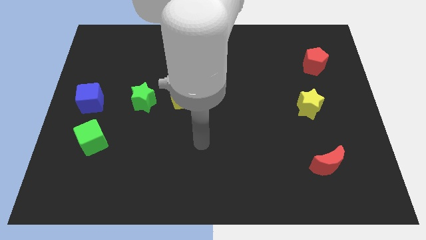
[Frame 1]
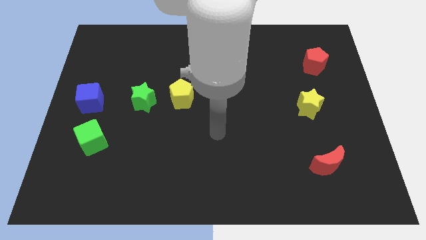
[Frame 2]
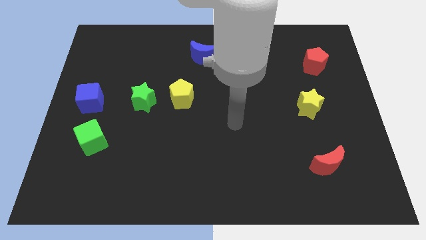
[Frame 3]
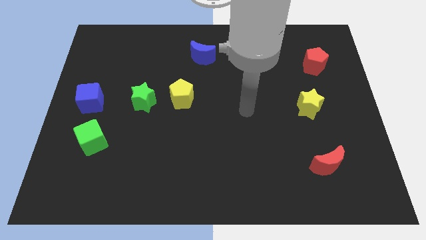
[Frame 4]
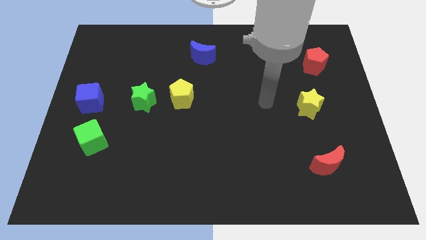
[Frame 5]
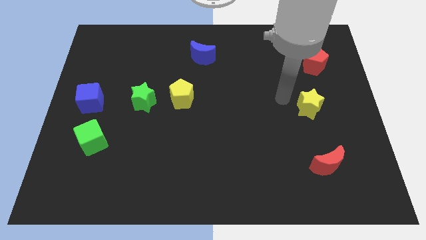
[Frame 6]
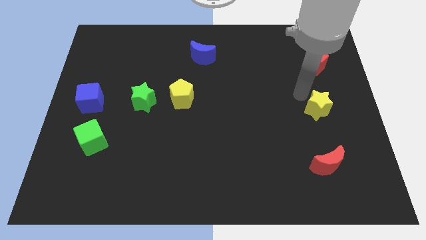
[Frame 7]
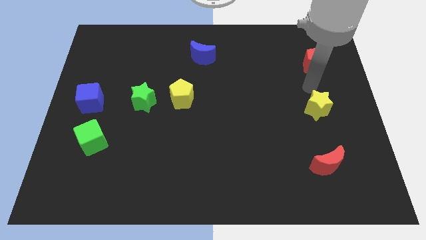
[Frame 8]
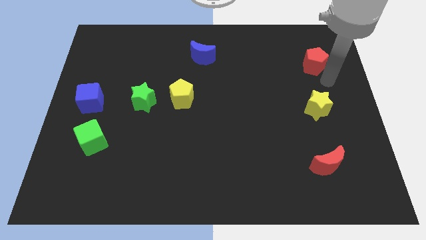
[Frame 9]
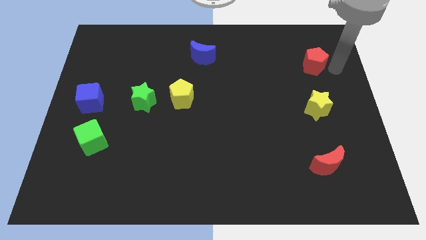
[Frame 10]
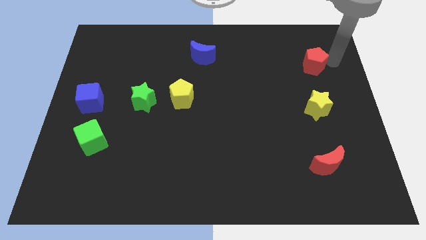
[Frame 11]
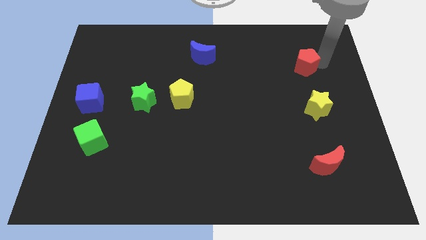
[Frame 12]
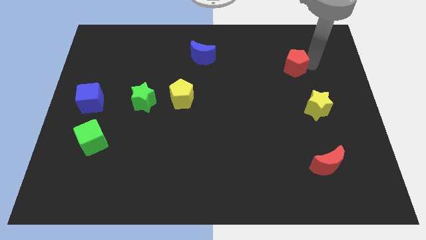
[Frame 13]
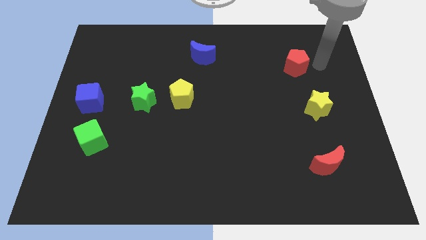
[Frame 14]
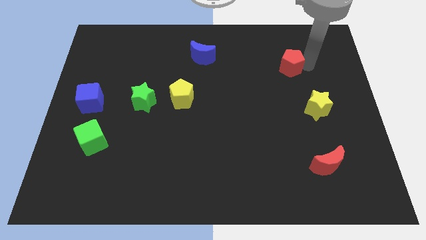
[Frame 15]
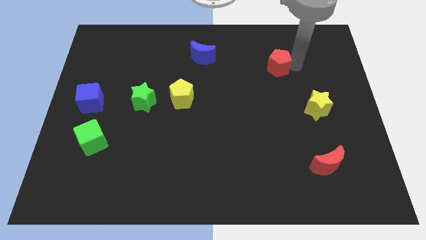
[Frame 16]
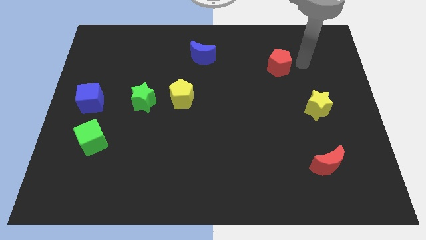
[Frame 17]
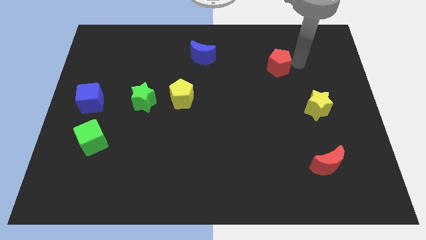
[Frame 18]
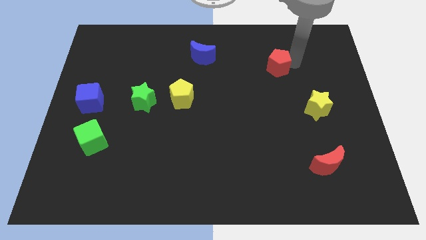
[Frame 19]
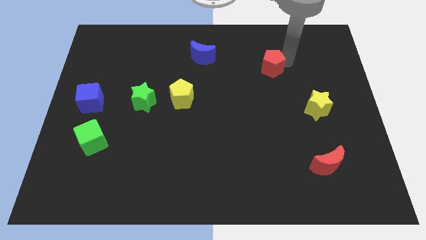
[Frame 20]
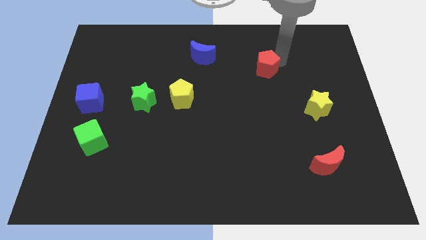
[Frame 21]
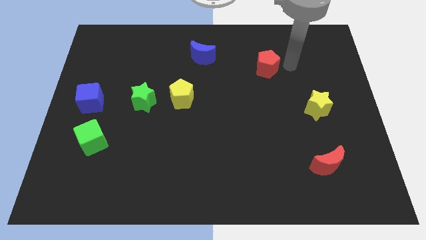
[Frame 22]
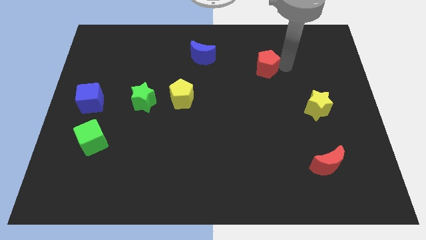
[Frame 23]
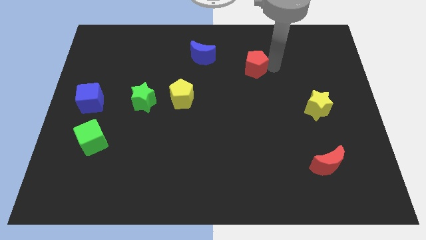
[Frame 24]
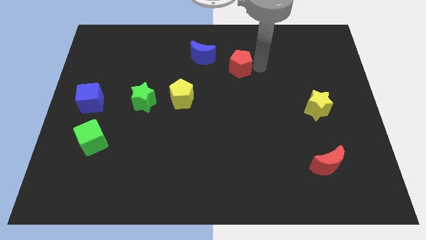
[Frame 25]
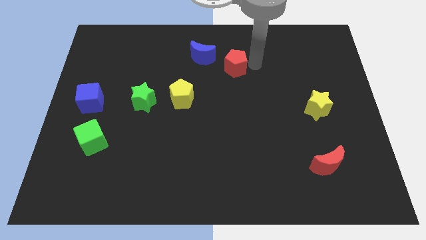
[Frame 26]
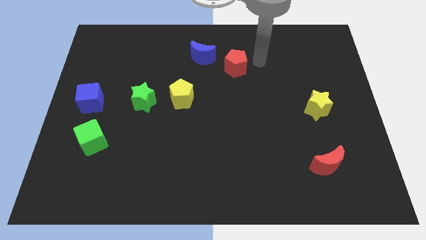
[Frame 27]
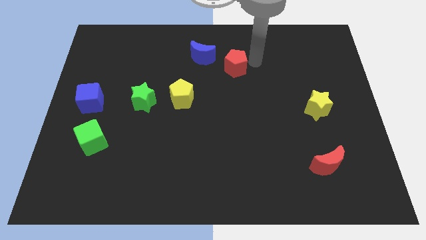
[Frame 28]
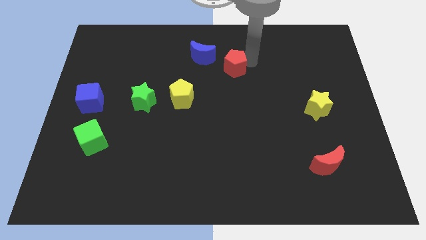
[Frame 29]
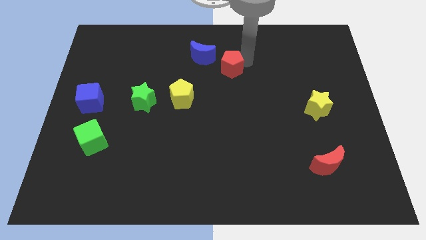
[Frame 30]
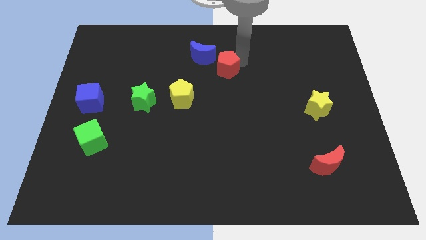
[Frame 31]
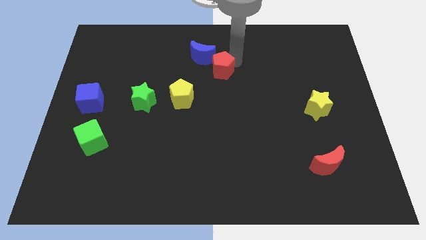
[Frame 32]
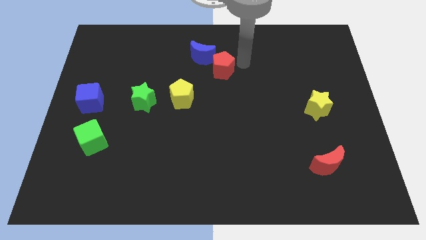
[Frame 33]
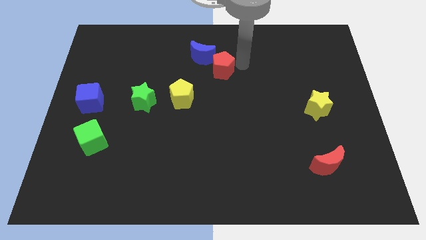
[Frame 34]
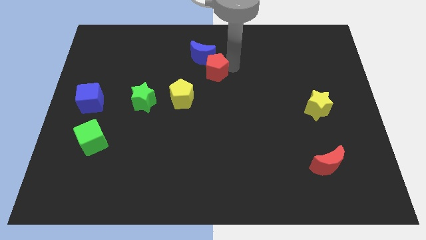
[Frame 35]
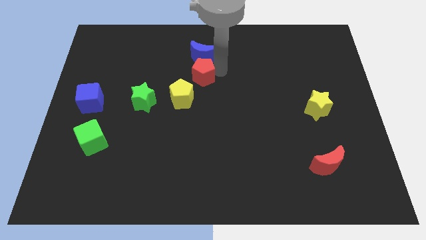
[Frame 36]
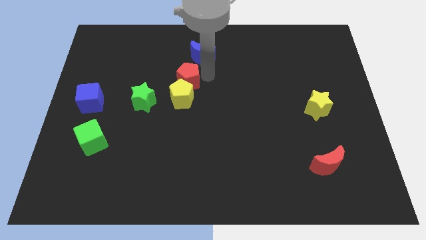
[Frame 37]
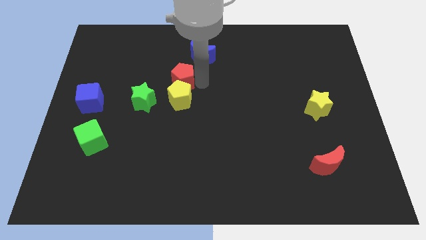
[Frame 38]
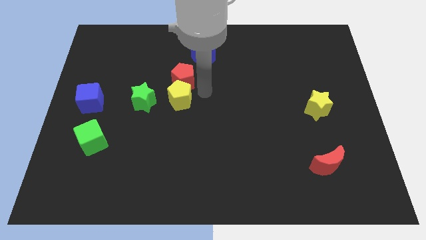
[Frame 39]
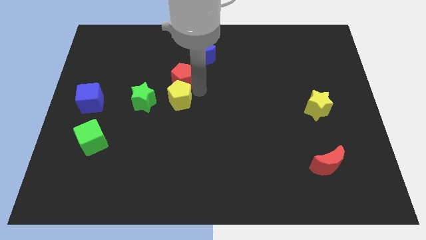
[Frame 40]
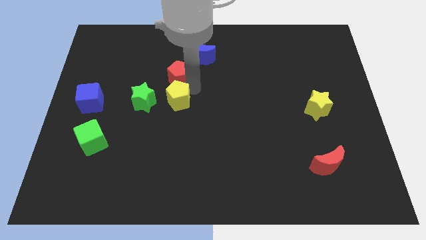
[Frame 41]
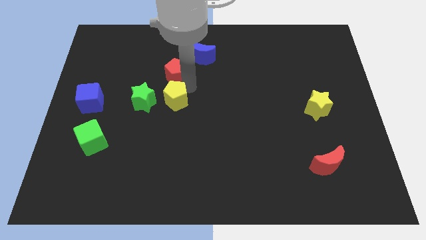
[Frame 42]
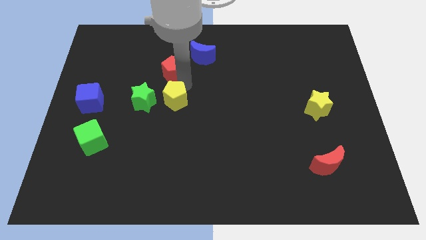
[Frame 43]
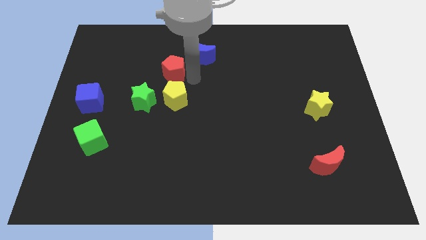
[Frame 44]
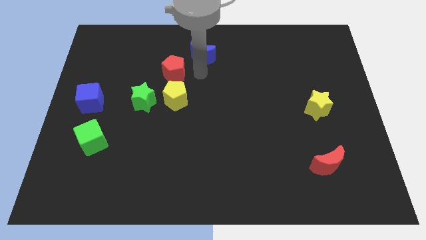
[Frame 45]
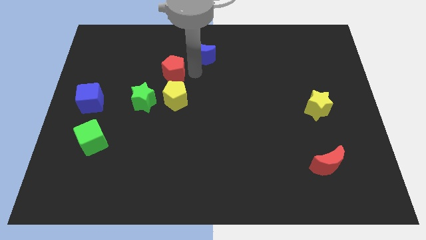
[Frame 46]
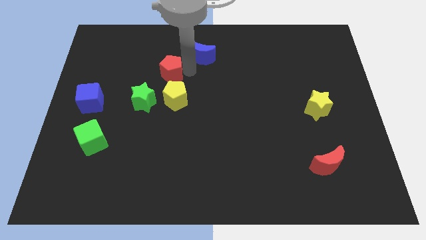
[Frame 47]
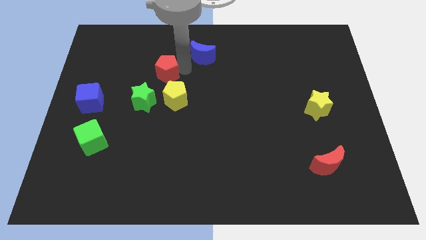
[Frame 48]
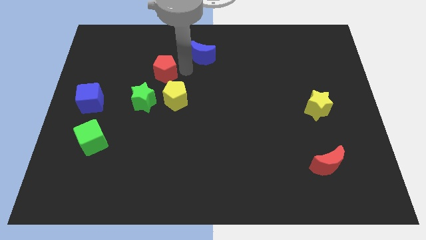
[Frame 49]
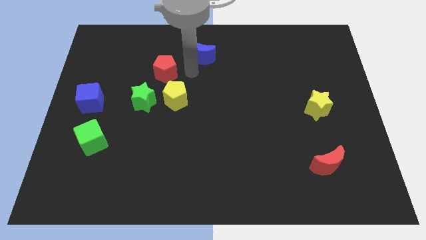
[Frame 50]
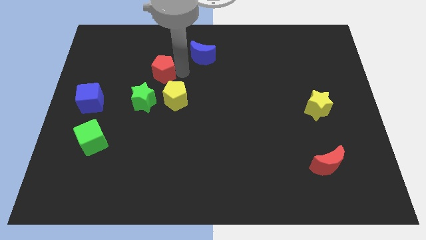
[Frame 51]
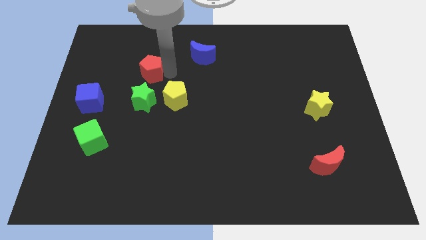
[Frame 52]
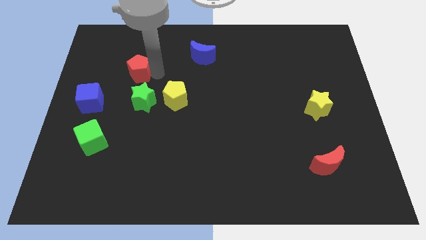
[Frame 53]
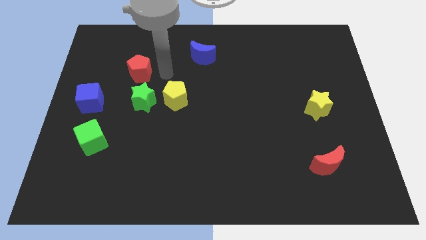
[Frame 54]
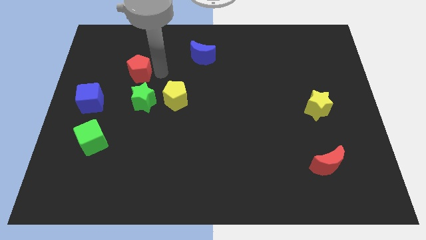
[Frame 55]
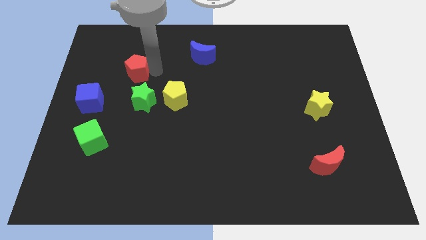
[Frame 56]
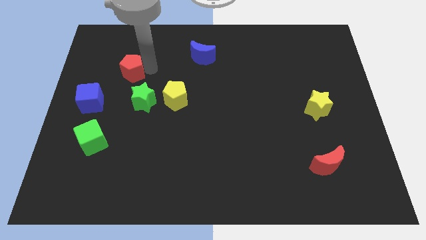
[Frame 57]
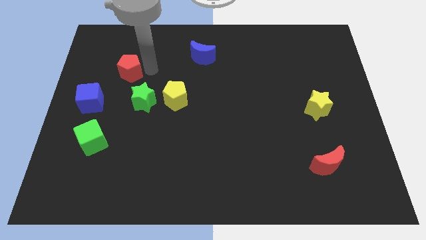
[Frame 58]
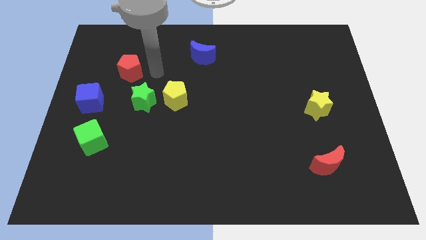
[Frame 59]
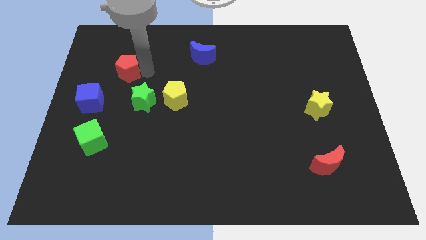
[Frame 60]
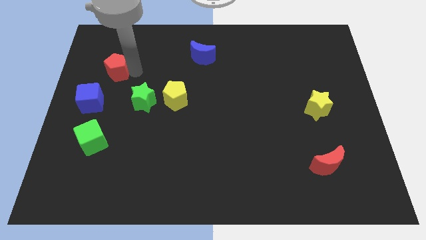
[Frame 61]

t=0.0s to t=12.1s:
push the red pentagon to the top side of the blue cube

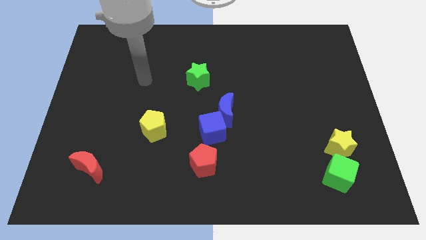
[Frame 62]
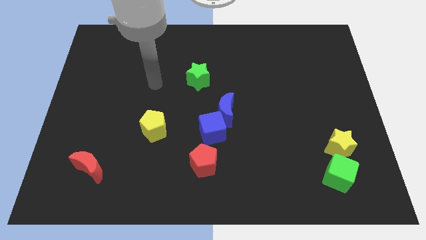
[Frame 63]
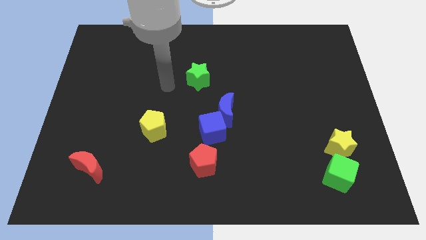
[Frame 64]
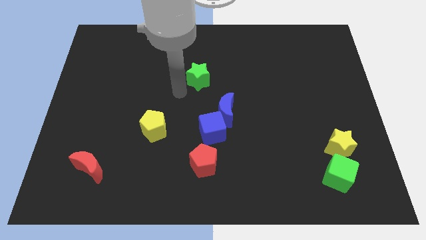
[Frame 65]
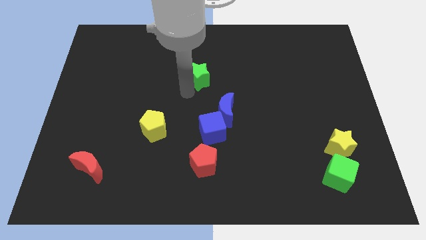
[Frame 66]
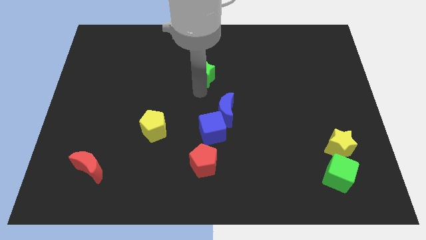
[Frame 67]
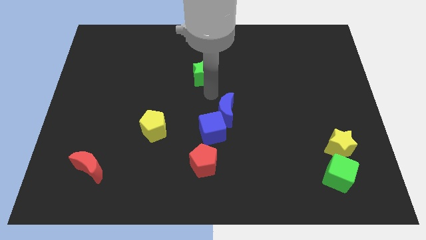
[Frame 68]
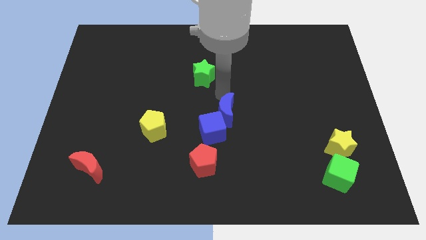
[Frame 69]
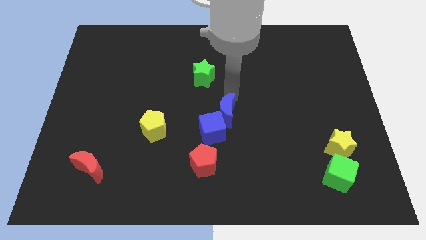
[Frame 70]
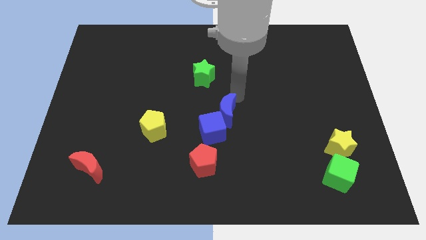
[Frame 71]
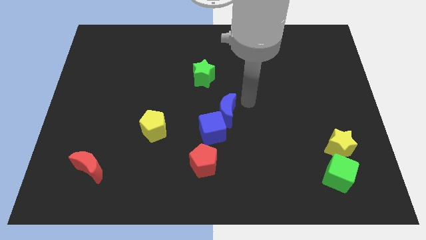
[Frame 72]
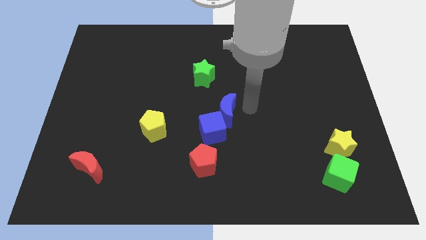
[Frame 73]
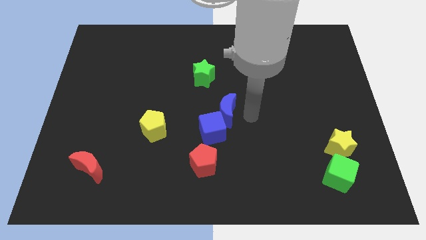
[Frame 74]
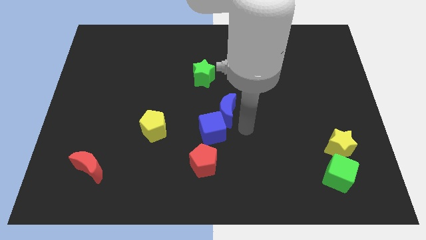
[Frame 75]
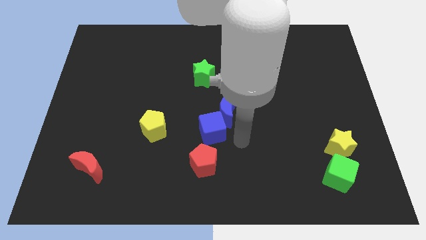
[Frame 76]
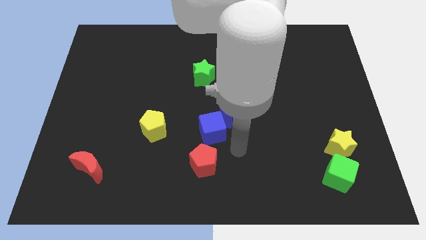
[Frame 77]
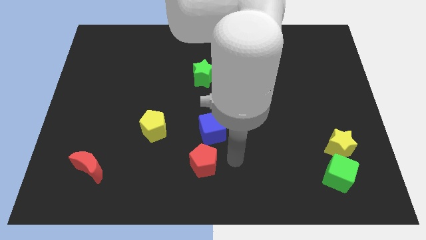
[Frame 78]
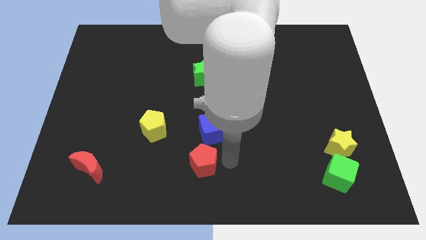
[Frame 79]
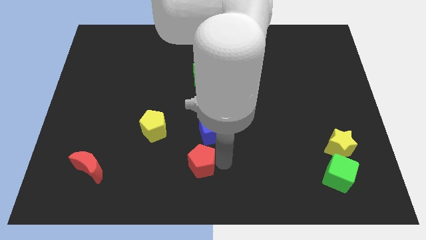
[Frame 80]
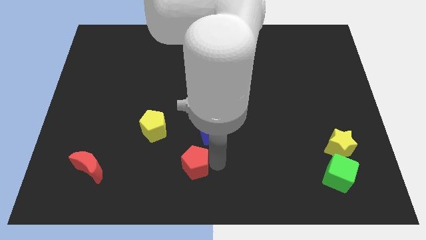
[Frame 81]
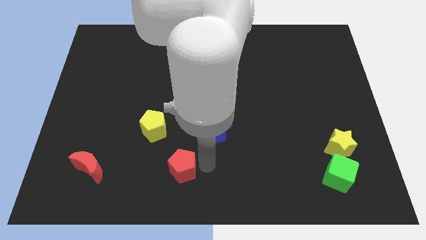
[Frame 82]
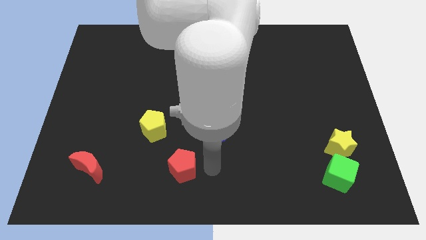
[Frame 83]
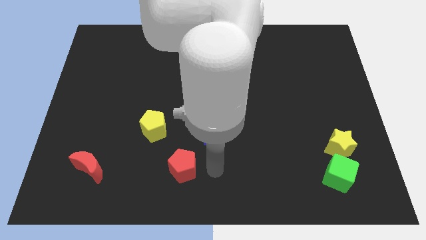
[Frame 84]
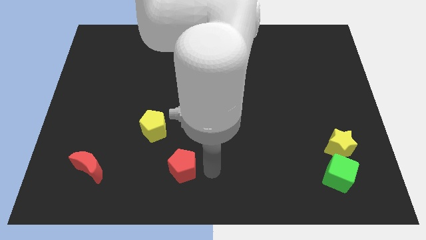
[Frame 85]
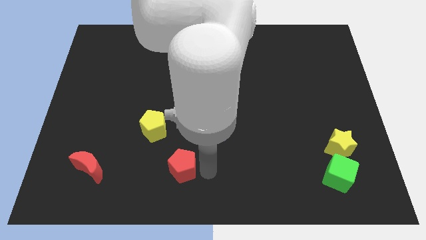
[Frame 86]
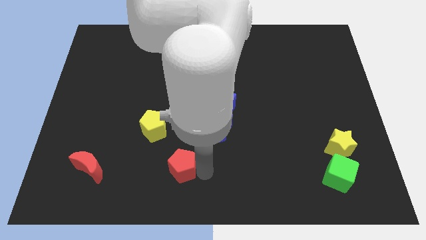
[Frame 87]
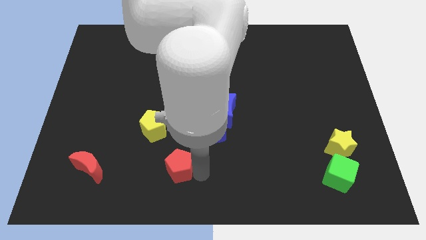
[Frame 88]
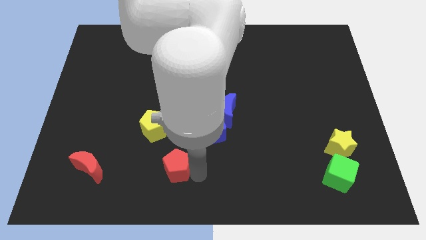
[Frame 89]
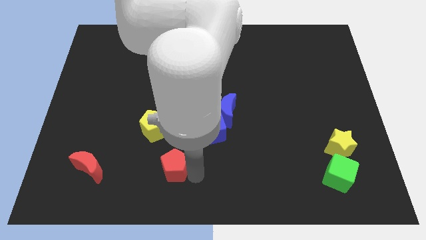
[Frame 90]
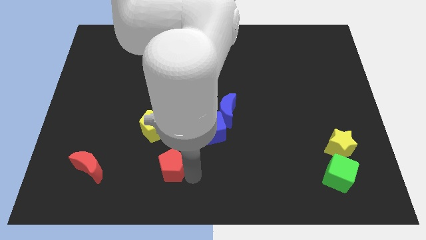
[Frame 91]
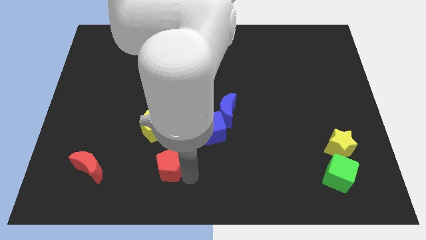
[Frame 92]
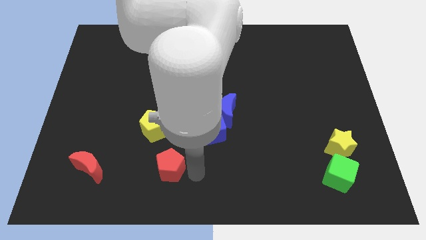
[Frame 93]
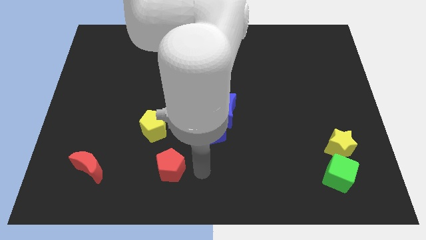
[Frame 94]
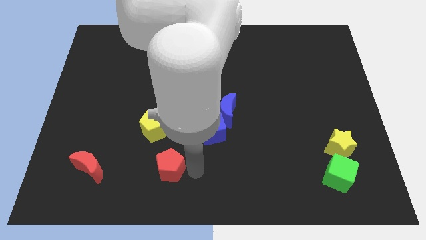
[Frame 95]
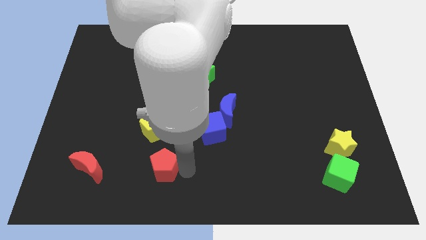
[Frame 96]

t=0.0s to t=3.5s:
push the red pentagon right of the red moon
